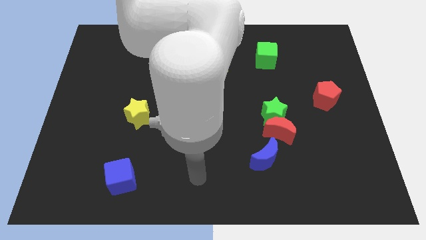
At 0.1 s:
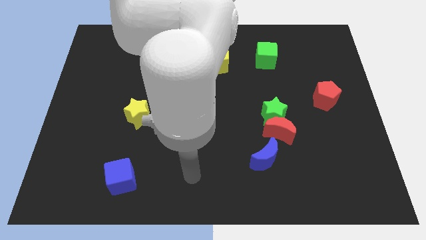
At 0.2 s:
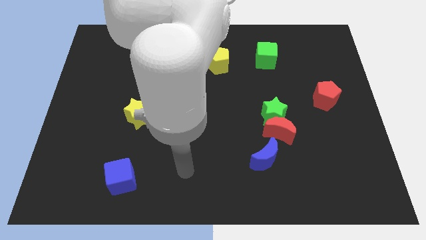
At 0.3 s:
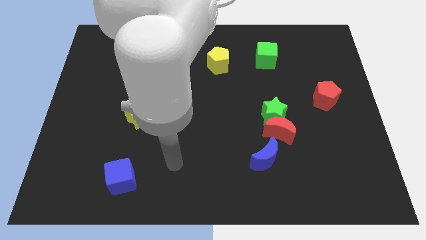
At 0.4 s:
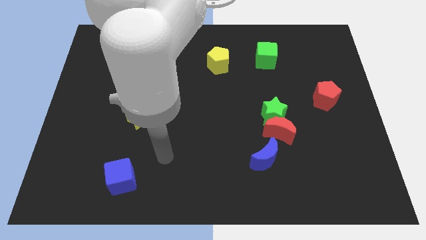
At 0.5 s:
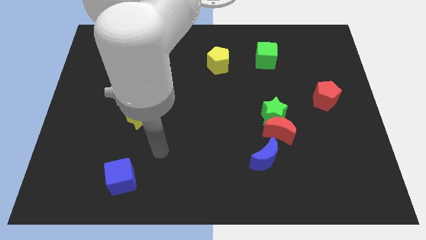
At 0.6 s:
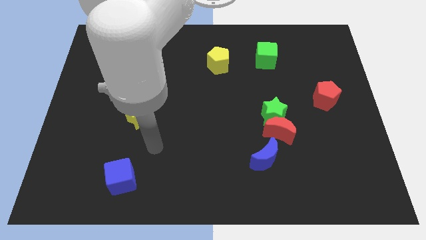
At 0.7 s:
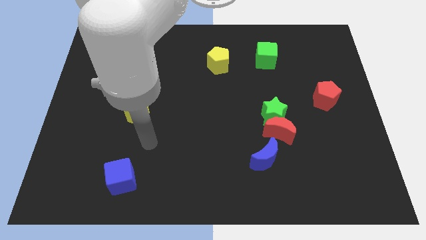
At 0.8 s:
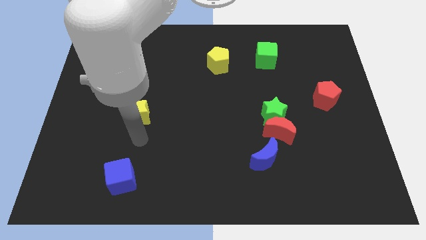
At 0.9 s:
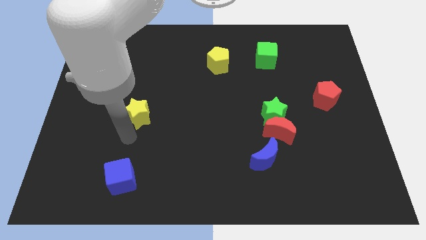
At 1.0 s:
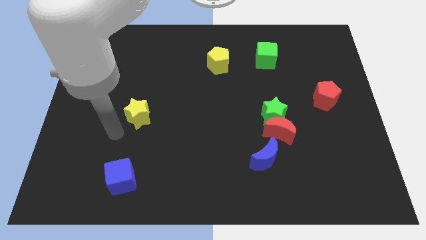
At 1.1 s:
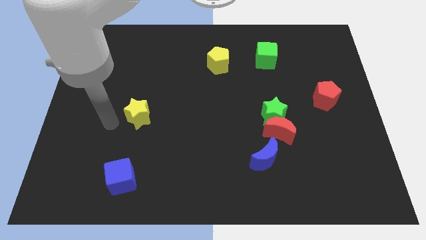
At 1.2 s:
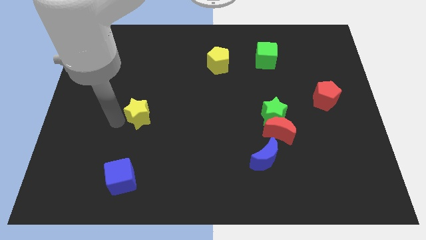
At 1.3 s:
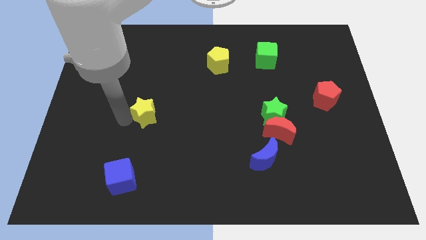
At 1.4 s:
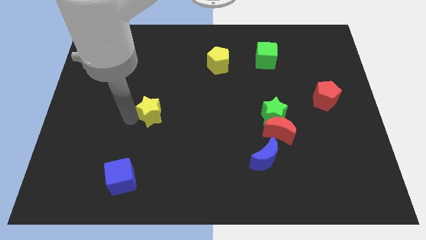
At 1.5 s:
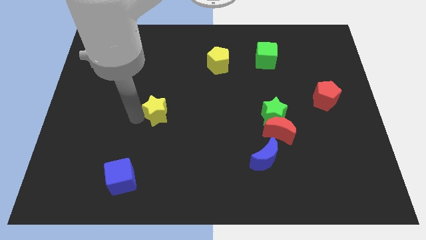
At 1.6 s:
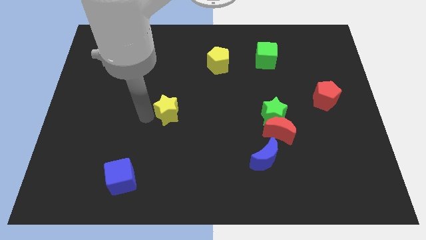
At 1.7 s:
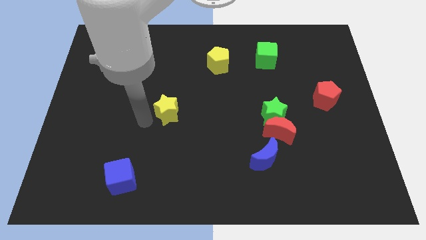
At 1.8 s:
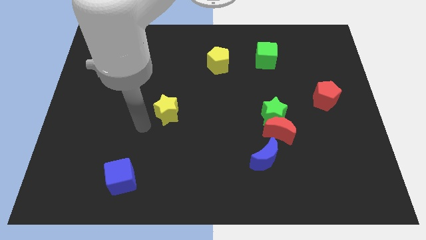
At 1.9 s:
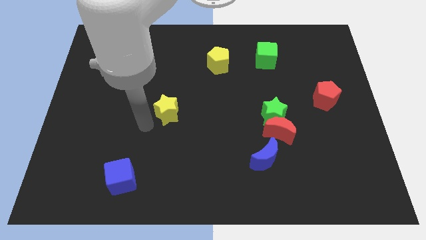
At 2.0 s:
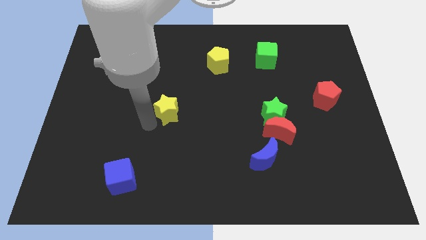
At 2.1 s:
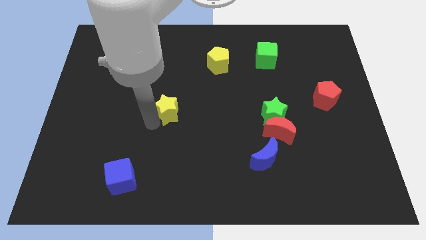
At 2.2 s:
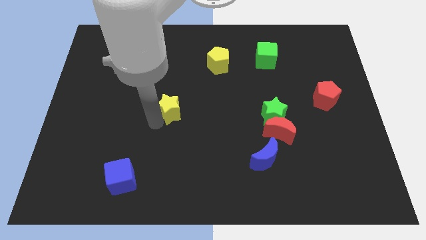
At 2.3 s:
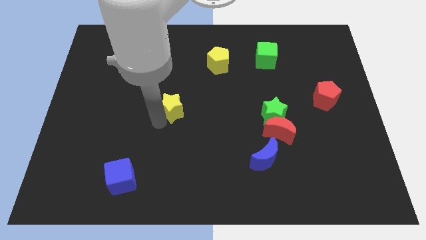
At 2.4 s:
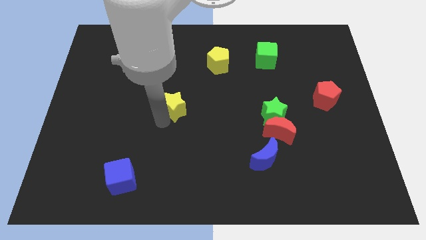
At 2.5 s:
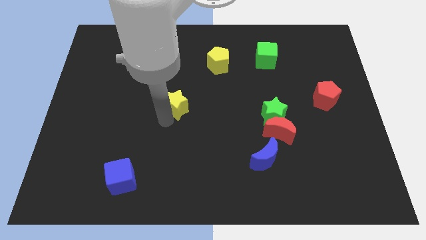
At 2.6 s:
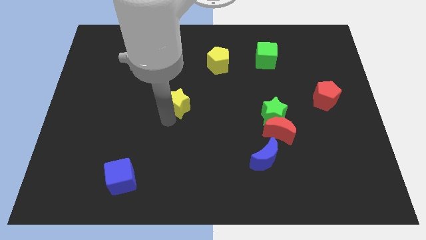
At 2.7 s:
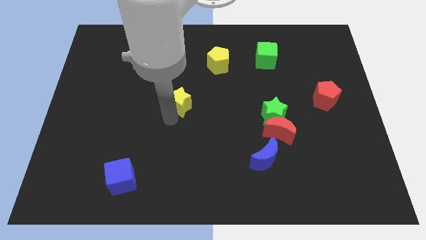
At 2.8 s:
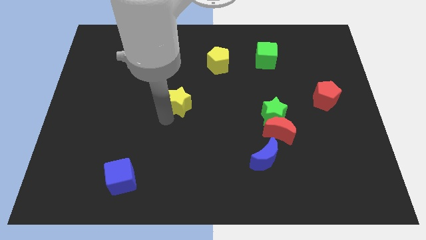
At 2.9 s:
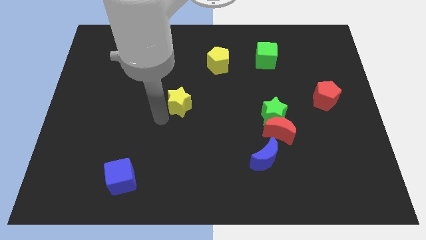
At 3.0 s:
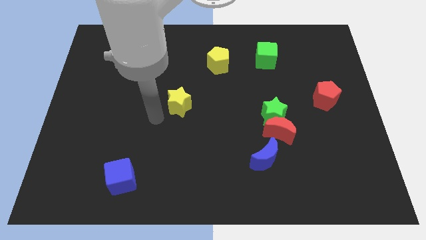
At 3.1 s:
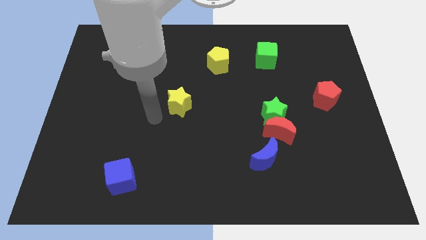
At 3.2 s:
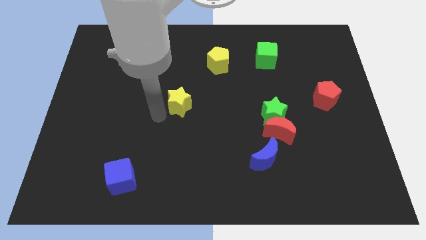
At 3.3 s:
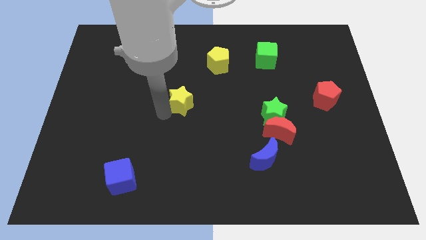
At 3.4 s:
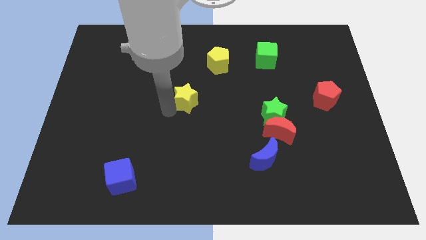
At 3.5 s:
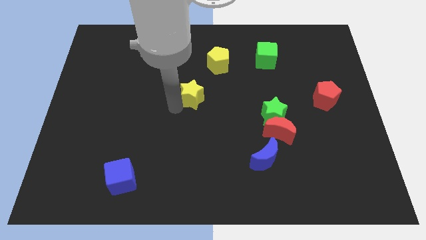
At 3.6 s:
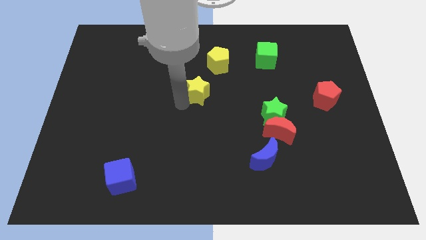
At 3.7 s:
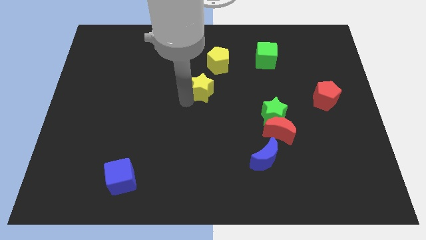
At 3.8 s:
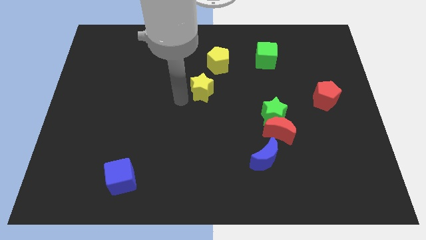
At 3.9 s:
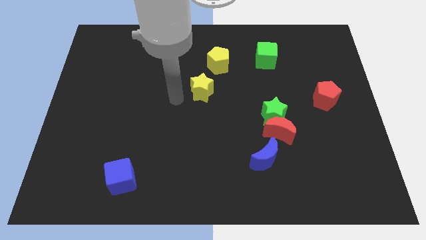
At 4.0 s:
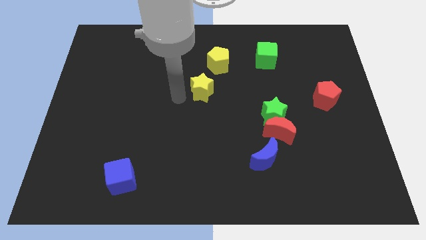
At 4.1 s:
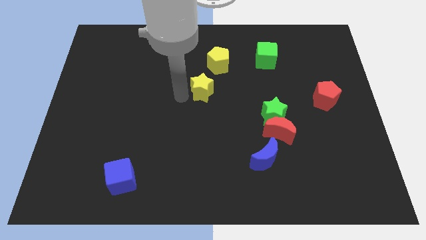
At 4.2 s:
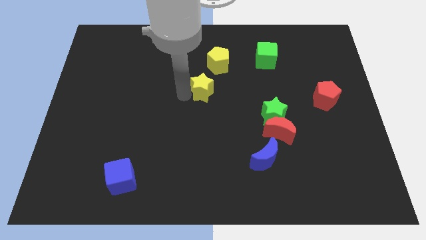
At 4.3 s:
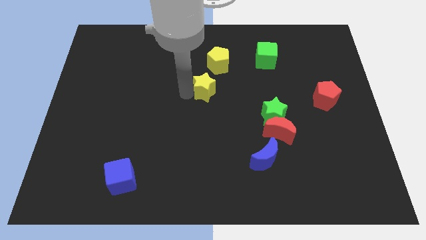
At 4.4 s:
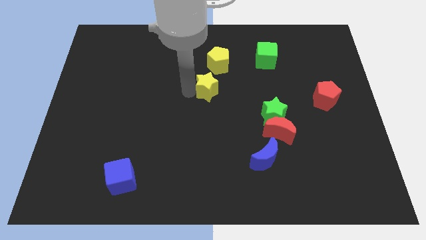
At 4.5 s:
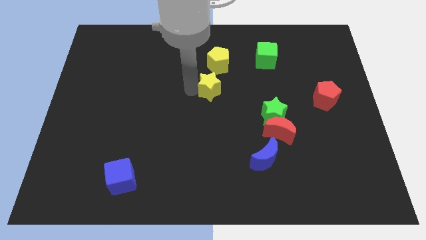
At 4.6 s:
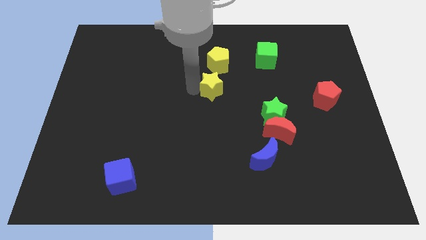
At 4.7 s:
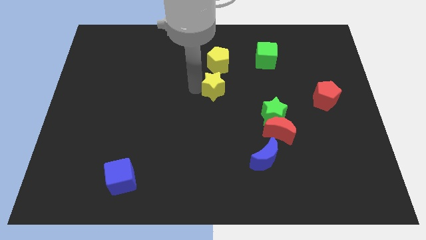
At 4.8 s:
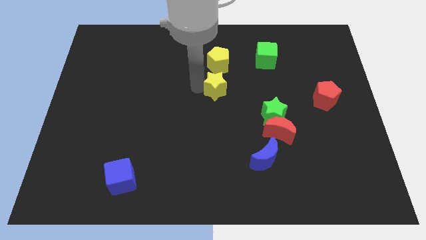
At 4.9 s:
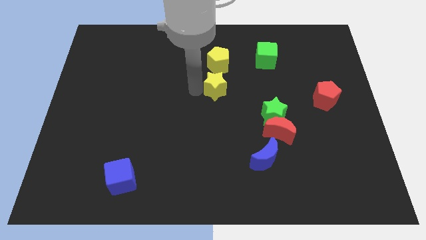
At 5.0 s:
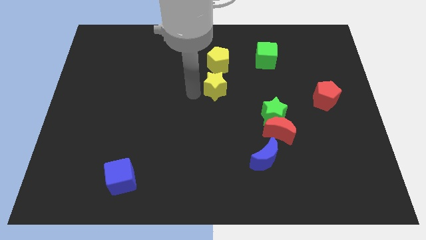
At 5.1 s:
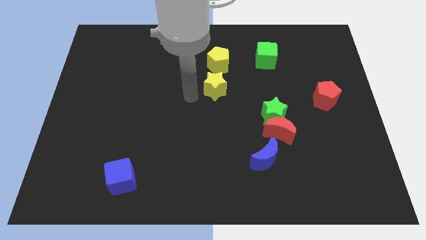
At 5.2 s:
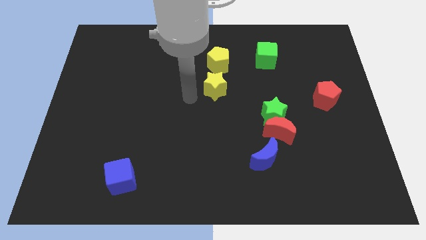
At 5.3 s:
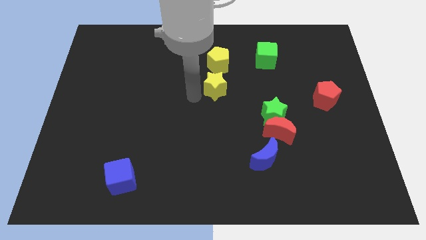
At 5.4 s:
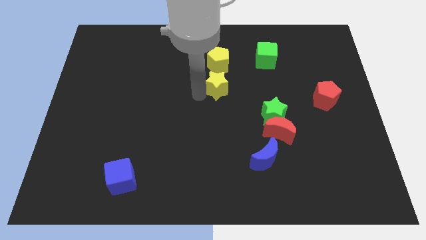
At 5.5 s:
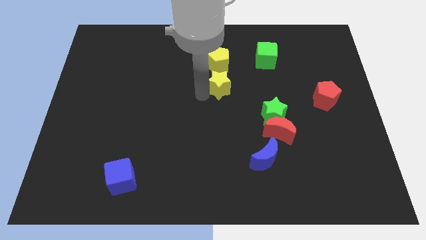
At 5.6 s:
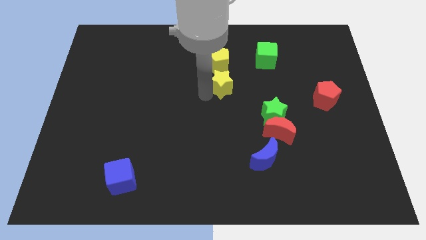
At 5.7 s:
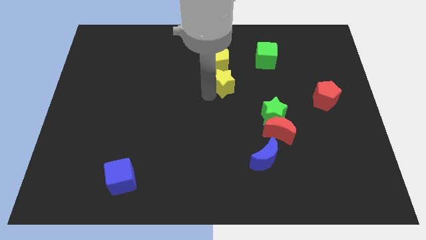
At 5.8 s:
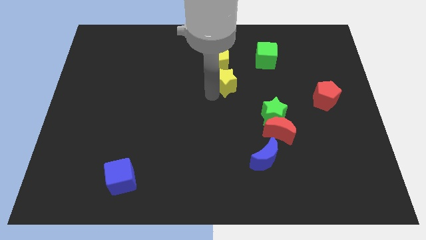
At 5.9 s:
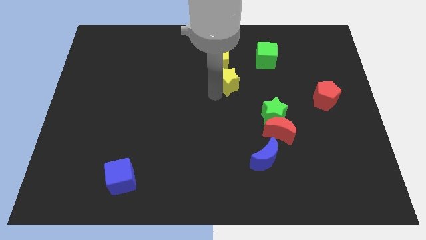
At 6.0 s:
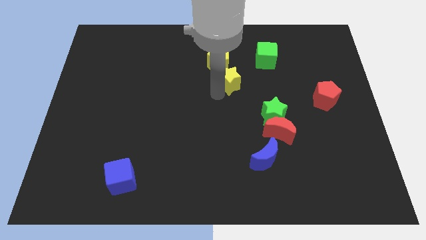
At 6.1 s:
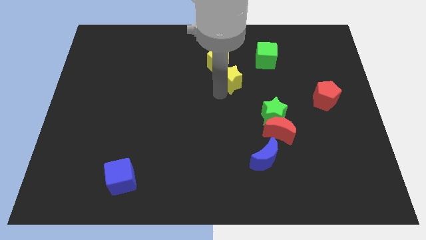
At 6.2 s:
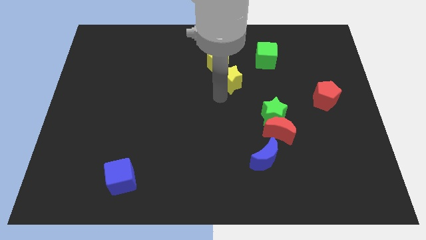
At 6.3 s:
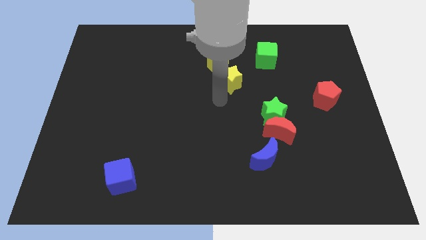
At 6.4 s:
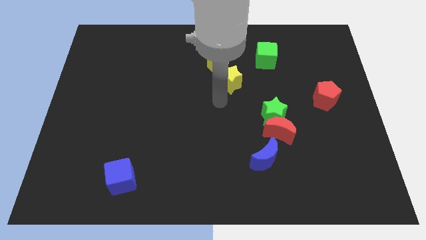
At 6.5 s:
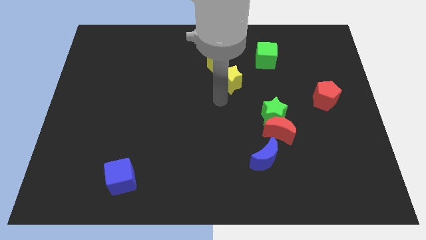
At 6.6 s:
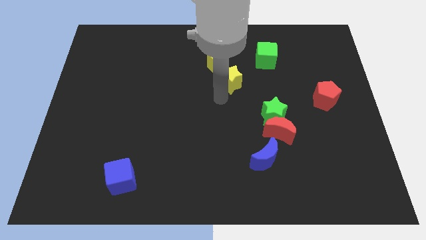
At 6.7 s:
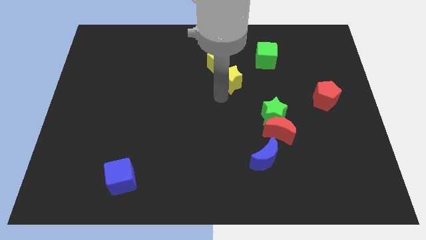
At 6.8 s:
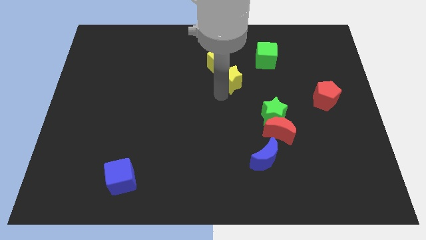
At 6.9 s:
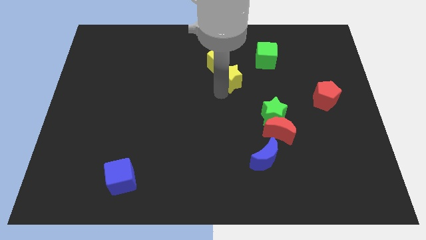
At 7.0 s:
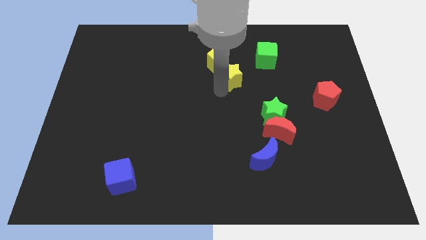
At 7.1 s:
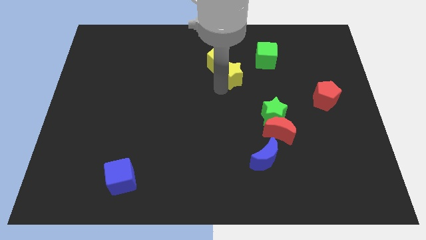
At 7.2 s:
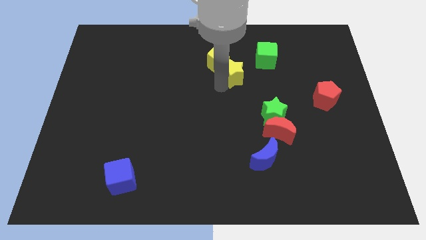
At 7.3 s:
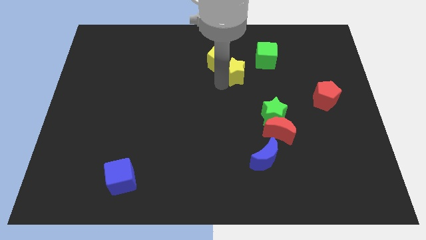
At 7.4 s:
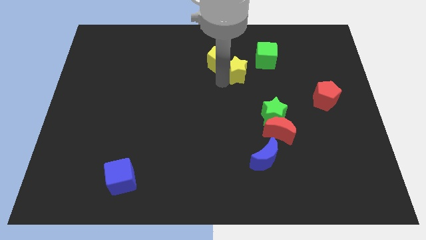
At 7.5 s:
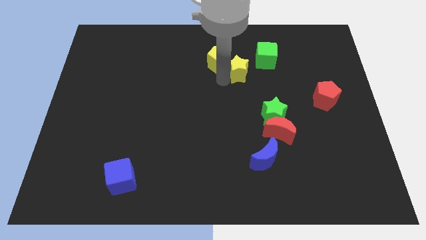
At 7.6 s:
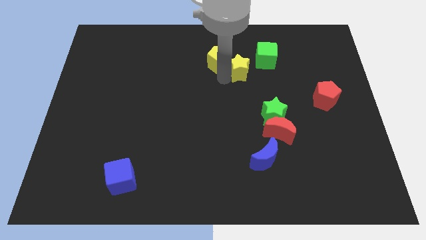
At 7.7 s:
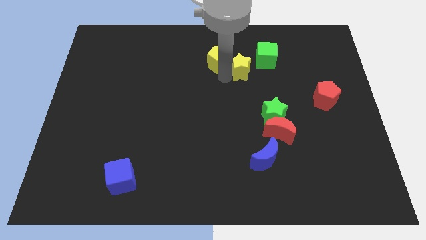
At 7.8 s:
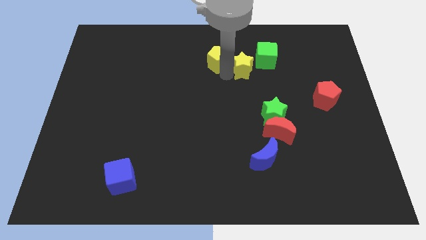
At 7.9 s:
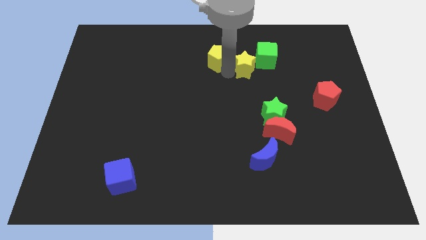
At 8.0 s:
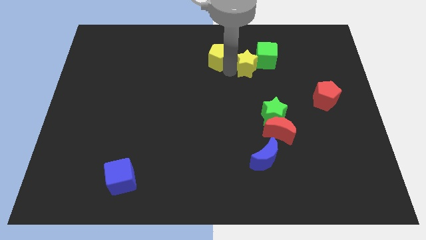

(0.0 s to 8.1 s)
move the yellow star close to the green cube
